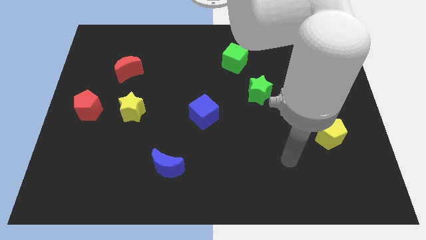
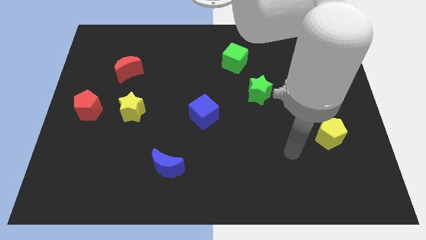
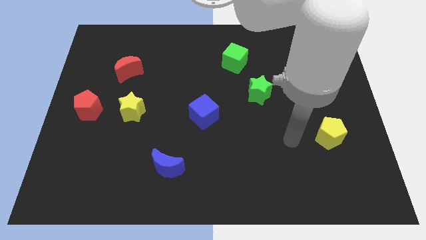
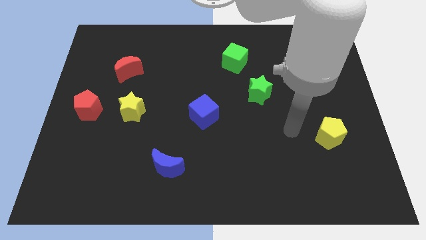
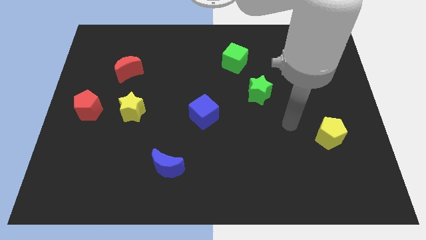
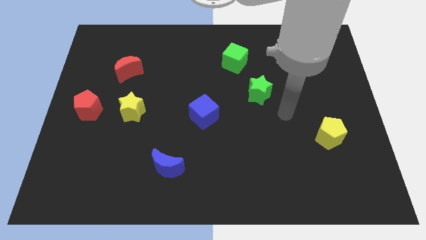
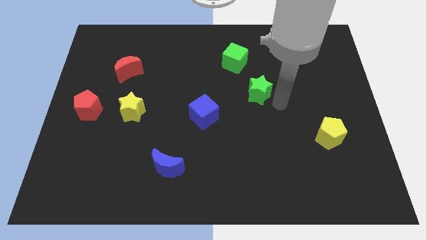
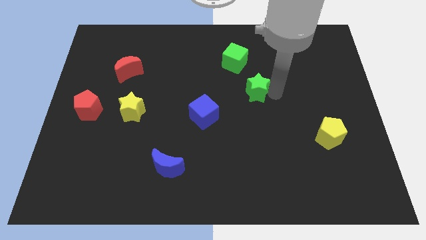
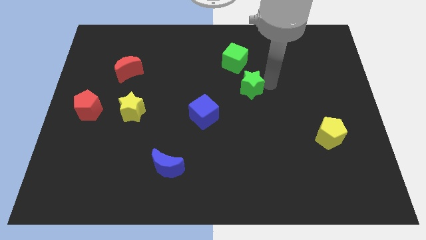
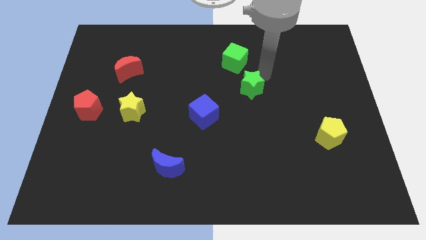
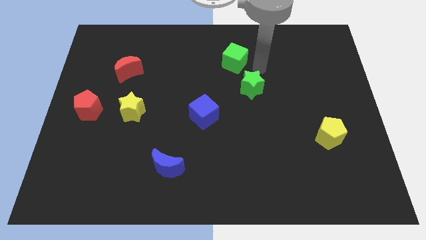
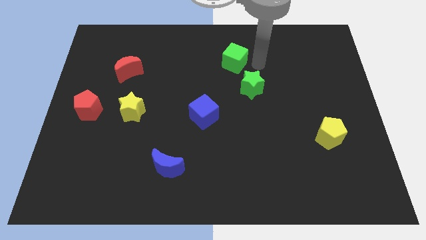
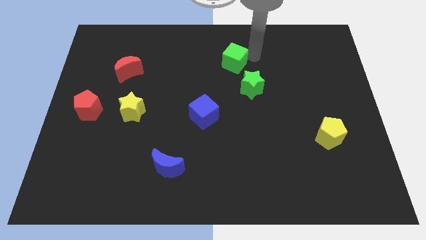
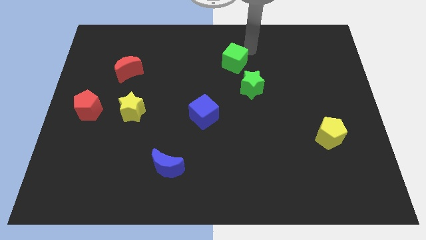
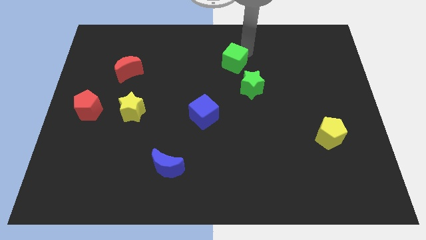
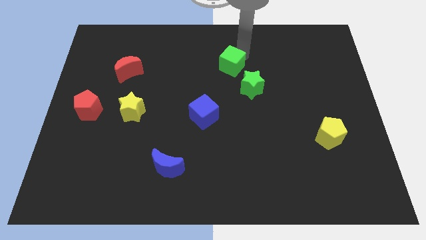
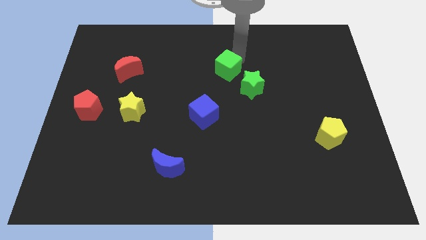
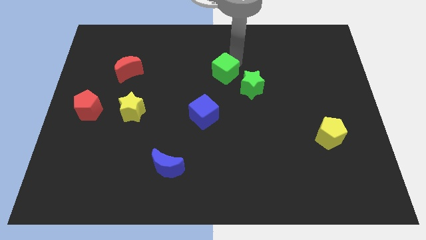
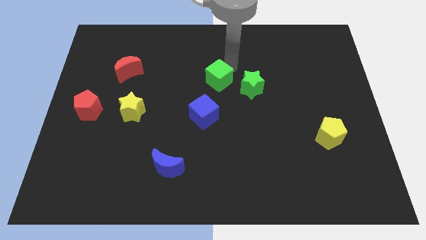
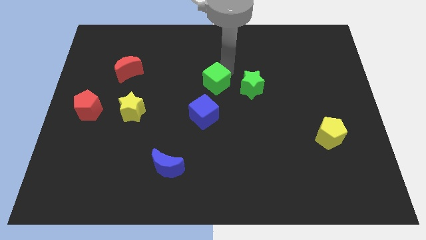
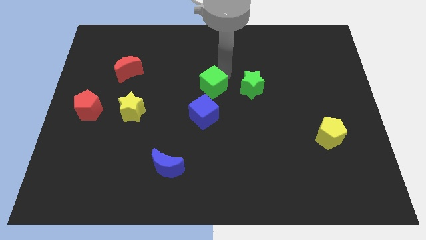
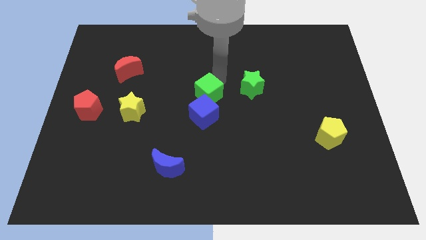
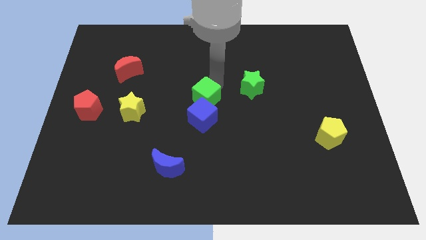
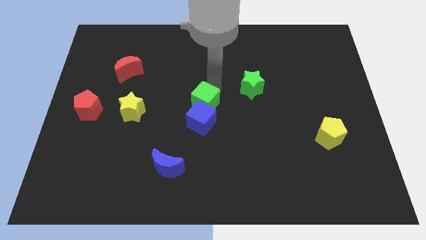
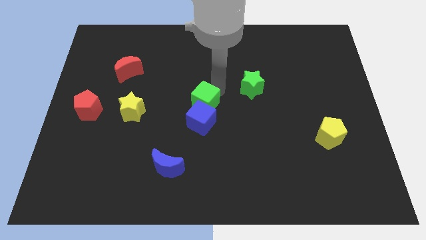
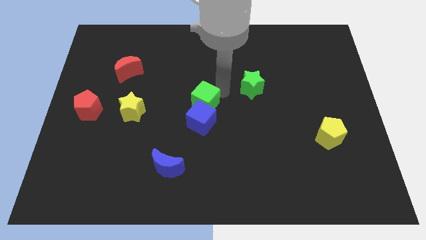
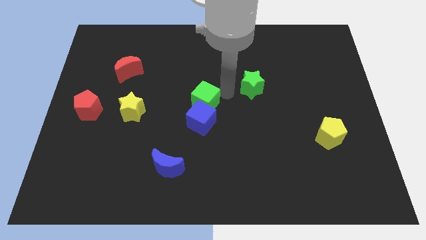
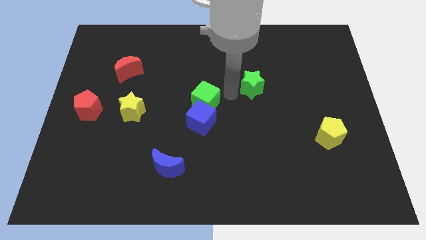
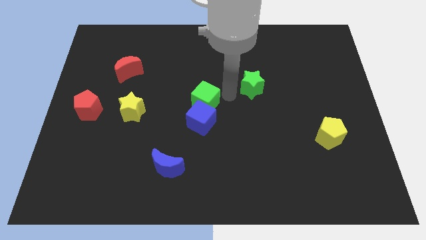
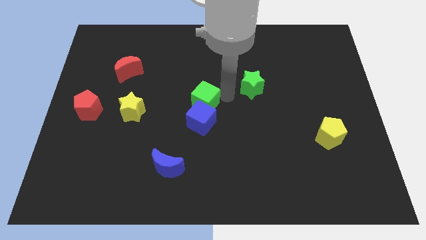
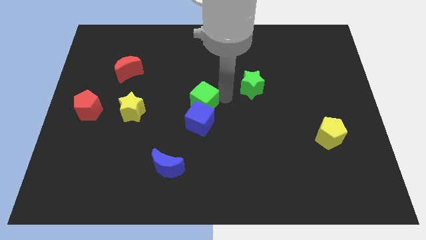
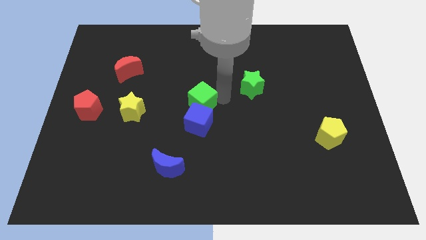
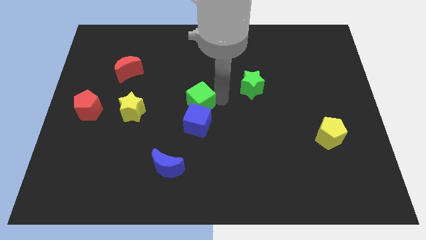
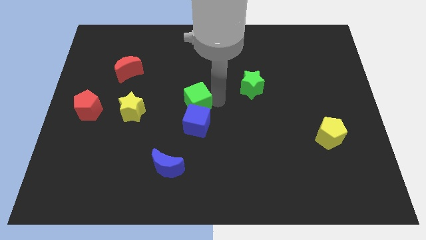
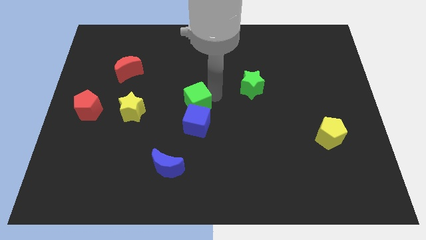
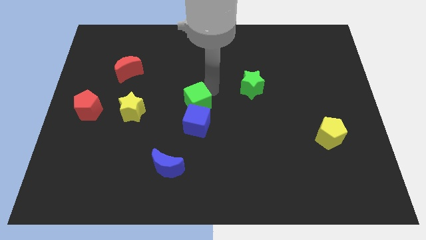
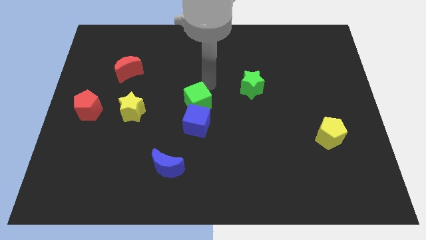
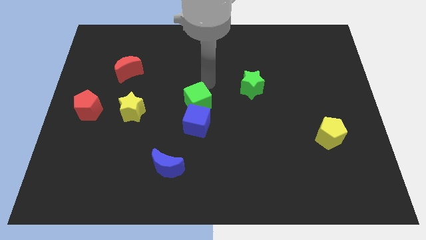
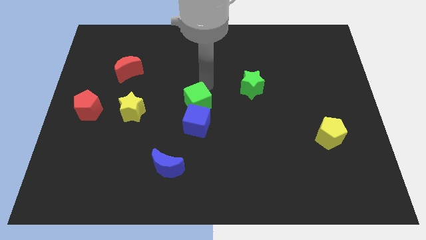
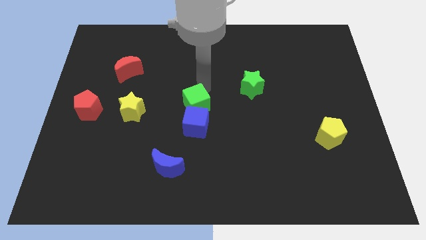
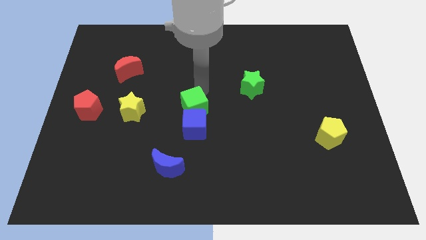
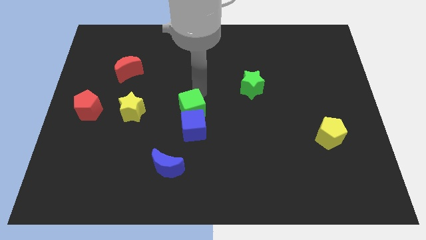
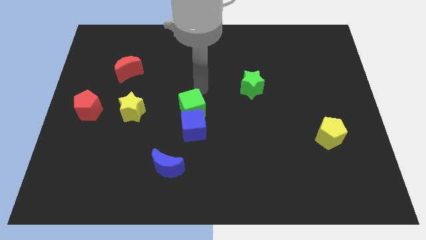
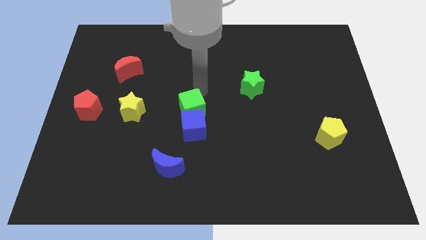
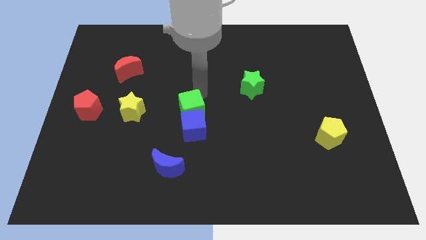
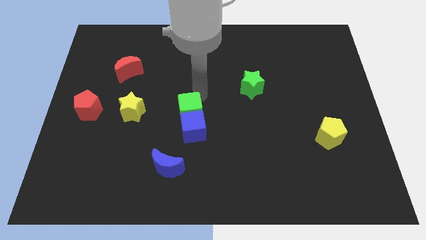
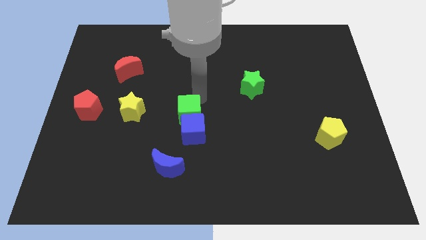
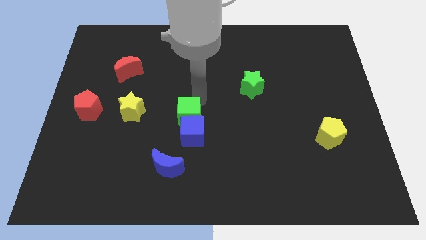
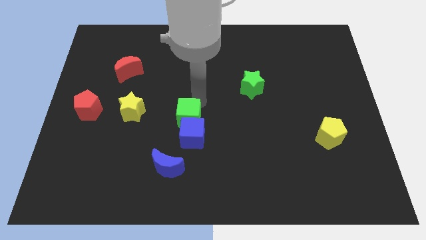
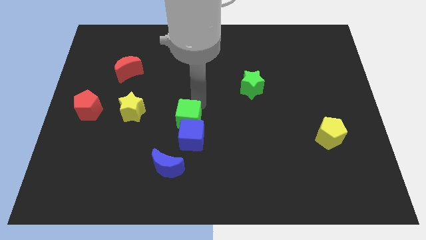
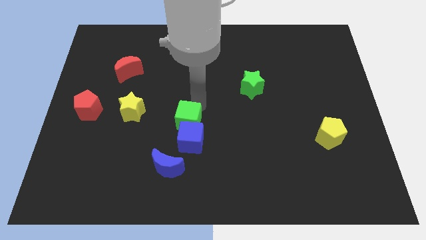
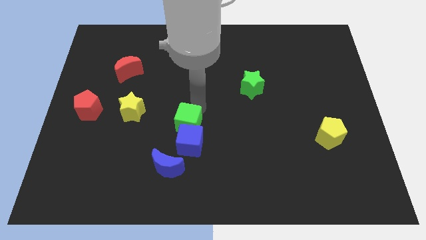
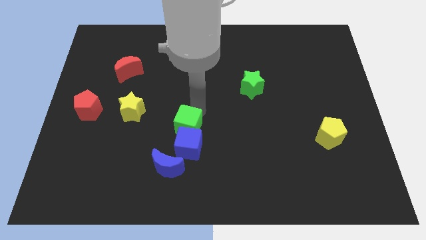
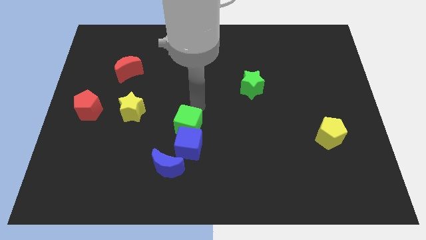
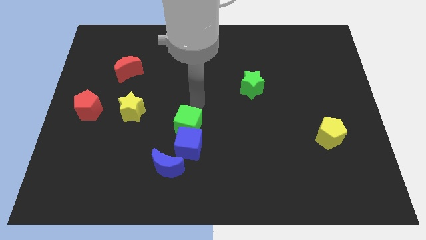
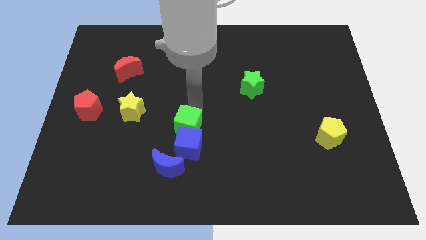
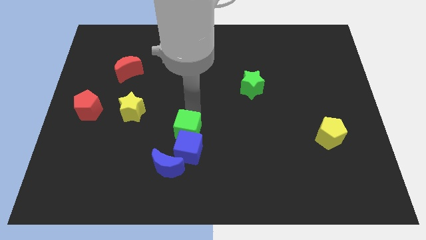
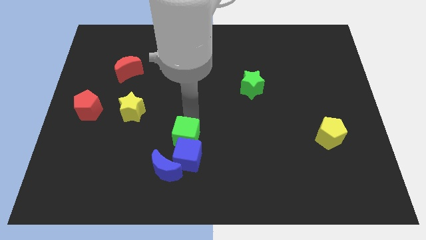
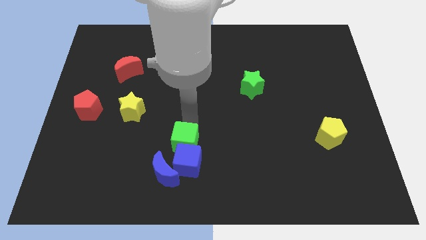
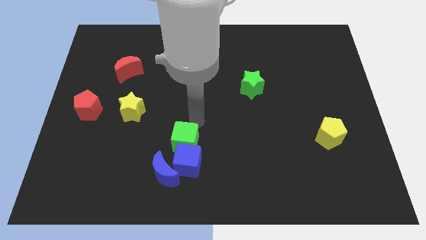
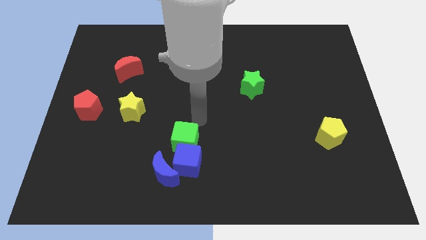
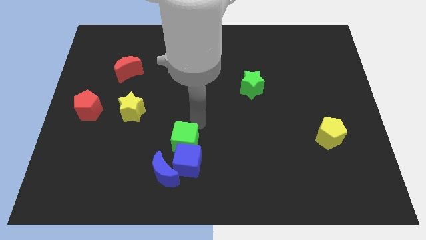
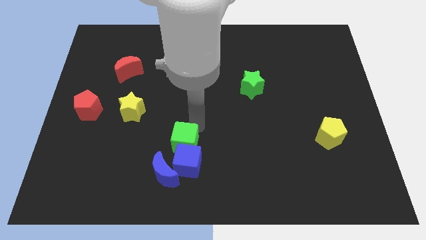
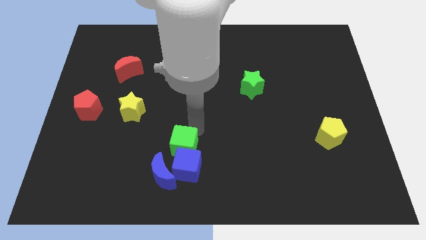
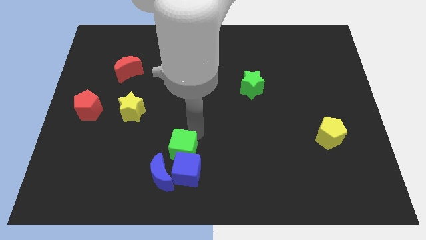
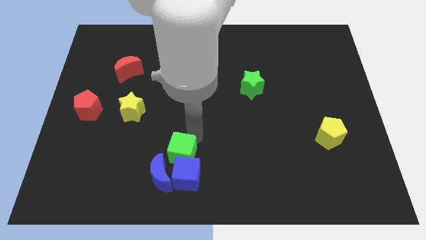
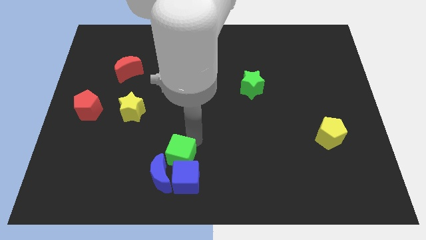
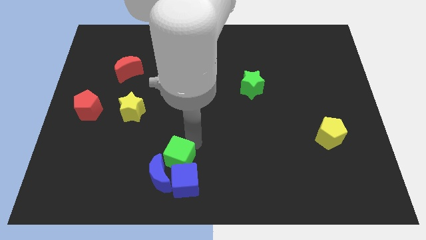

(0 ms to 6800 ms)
push the green cube to the blue moon
